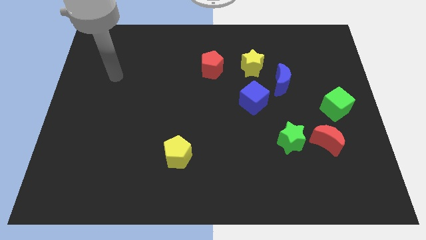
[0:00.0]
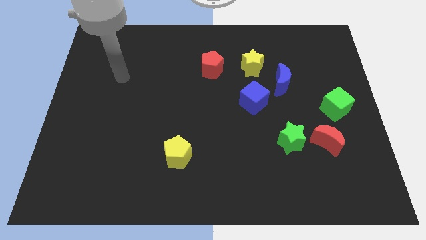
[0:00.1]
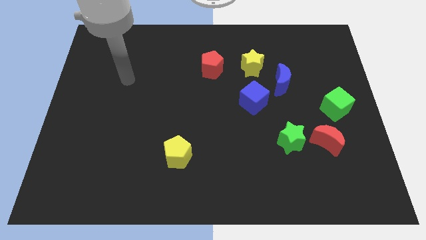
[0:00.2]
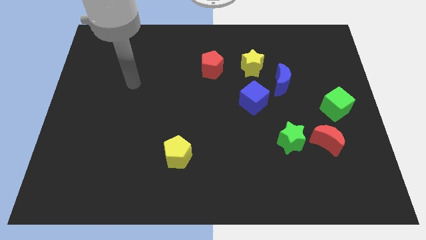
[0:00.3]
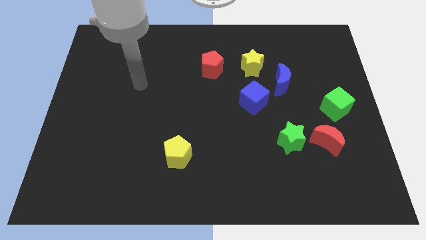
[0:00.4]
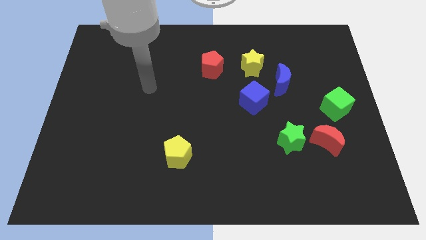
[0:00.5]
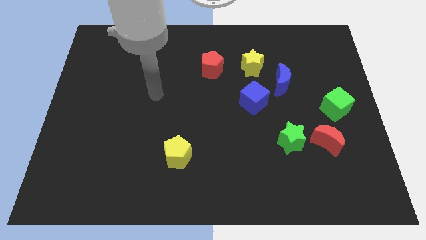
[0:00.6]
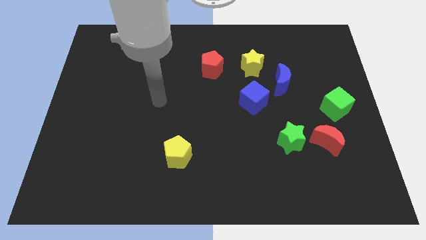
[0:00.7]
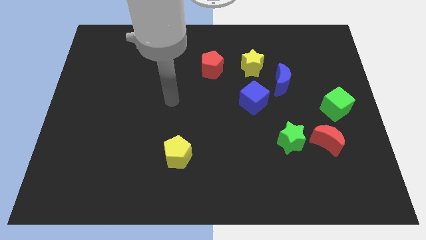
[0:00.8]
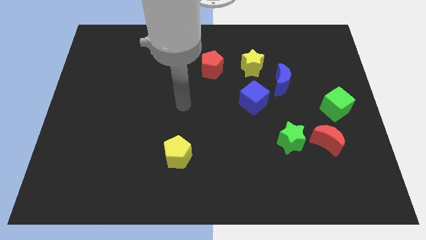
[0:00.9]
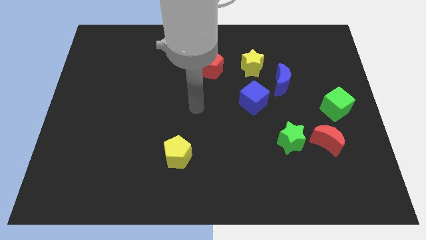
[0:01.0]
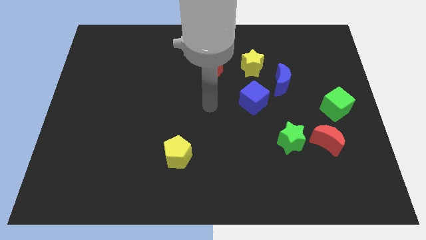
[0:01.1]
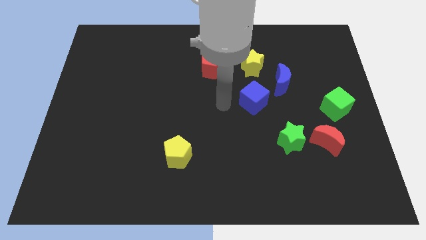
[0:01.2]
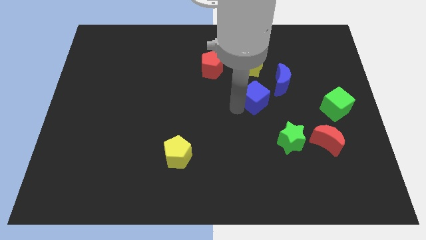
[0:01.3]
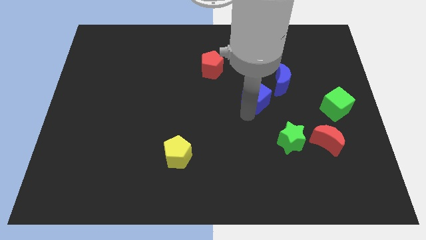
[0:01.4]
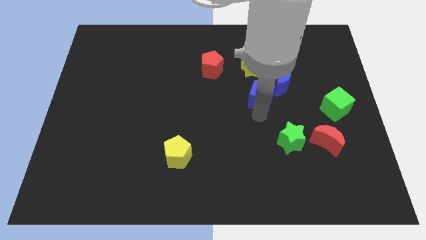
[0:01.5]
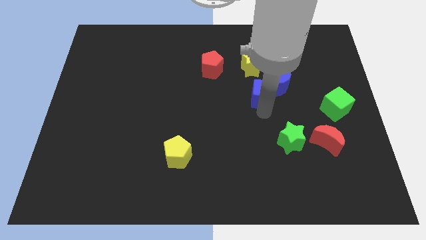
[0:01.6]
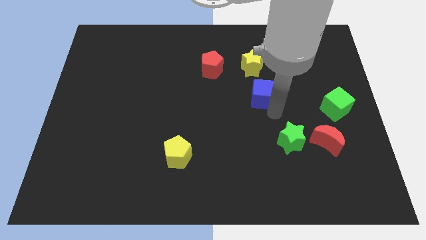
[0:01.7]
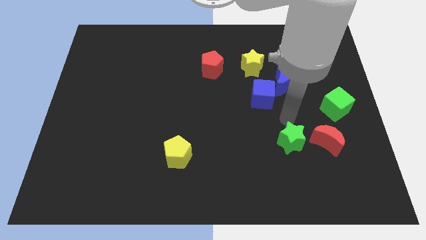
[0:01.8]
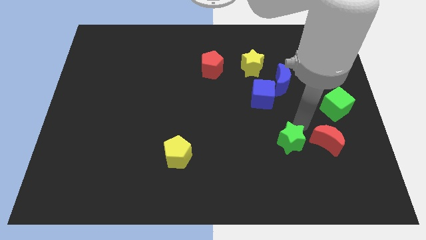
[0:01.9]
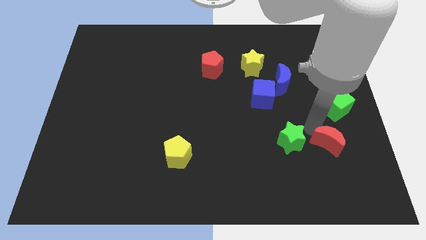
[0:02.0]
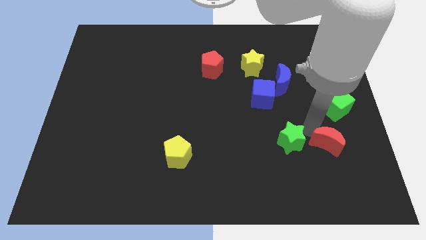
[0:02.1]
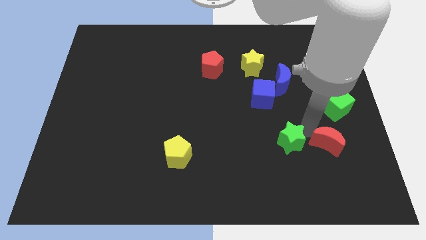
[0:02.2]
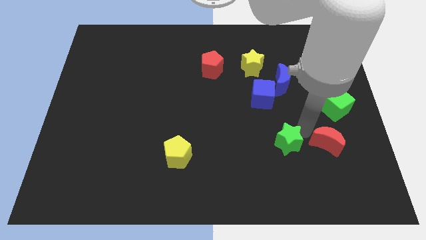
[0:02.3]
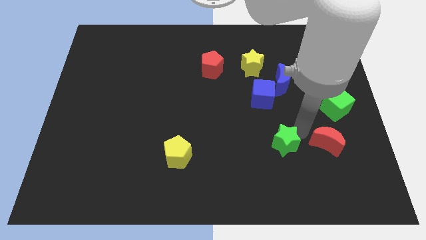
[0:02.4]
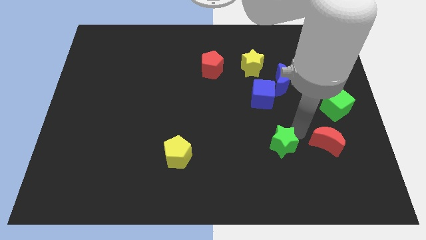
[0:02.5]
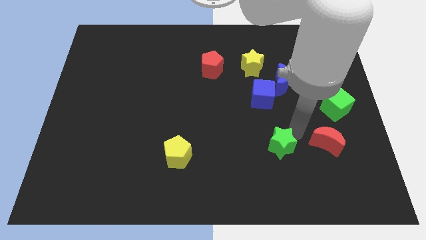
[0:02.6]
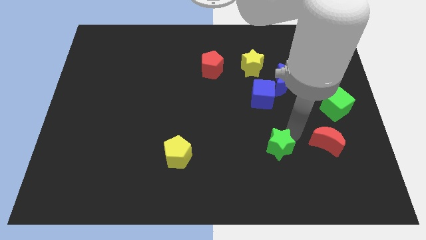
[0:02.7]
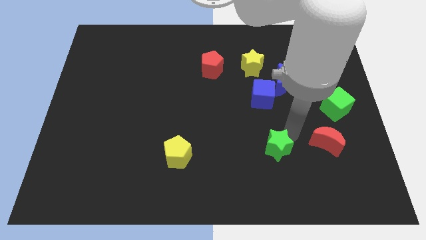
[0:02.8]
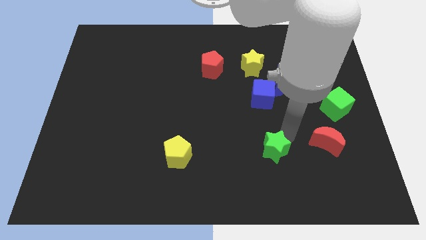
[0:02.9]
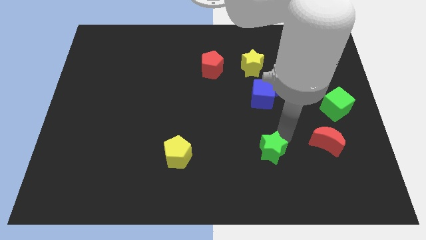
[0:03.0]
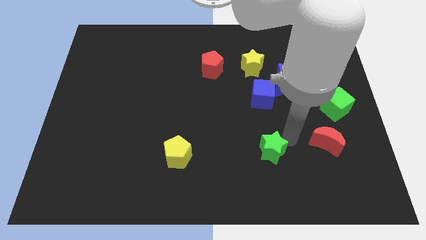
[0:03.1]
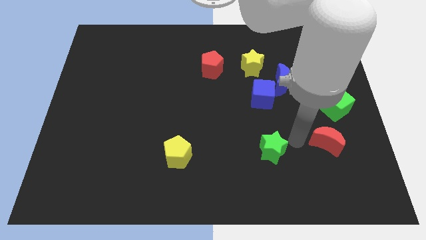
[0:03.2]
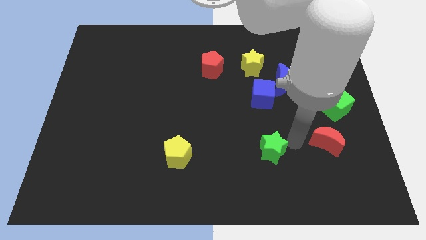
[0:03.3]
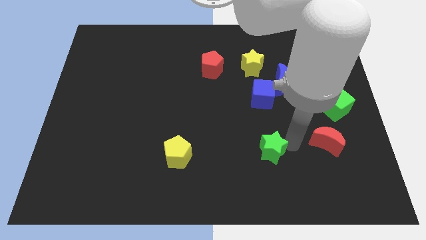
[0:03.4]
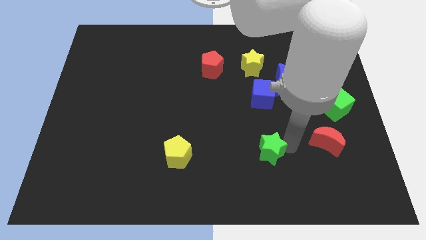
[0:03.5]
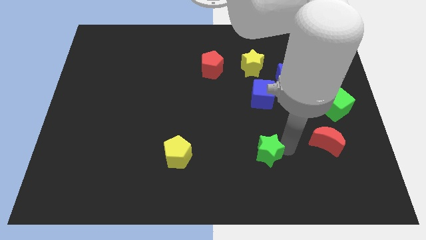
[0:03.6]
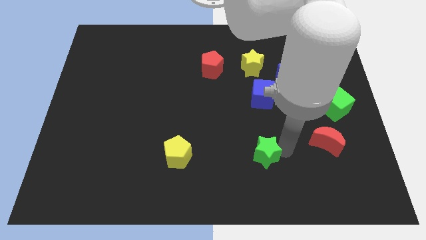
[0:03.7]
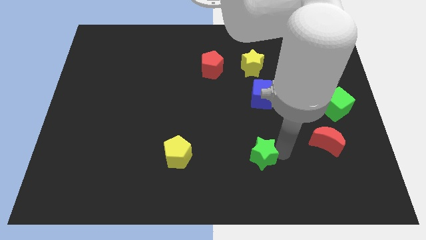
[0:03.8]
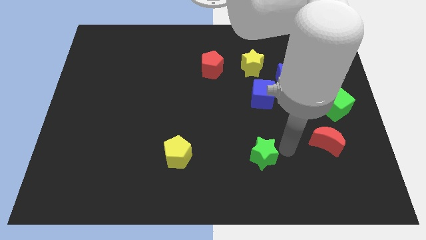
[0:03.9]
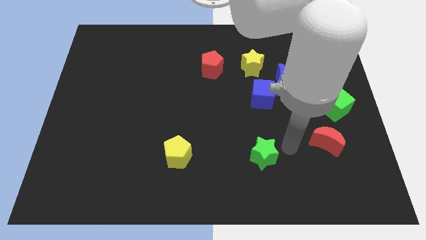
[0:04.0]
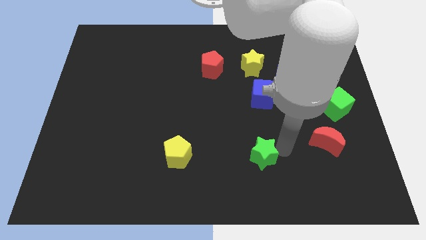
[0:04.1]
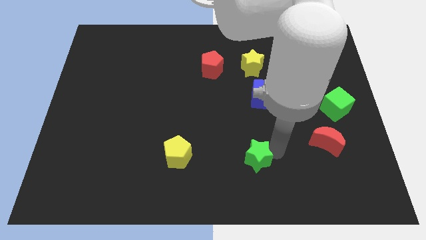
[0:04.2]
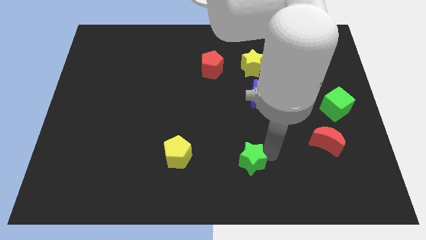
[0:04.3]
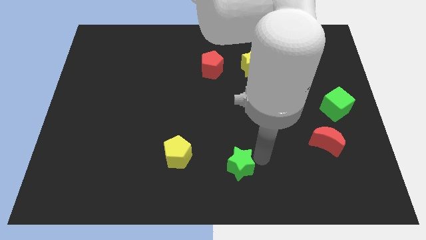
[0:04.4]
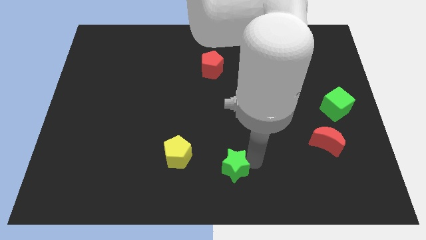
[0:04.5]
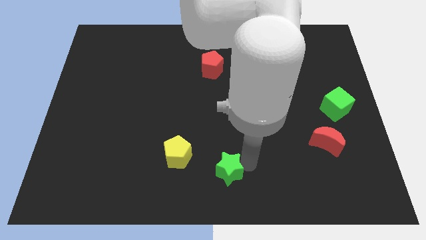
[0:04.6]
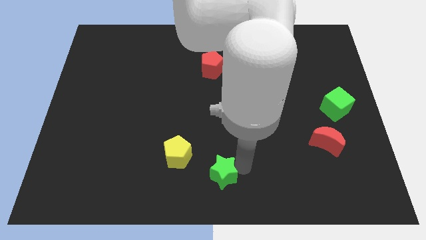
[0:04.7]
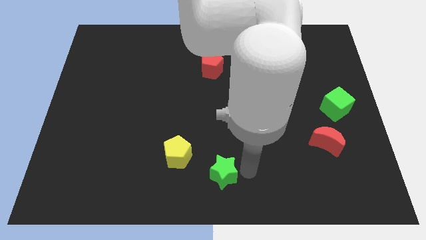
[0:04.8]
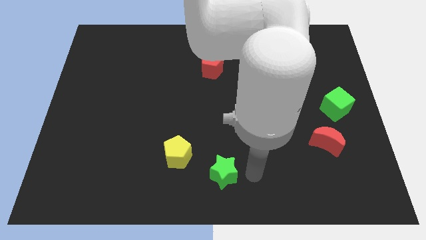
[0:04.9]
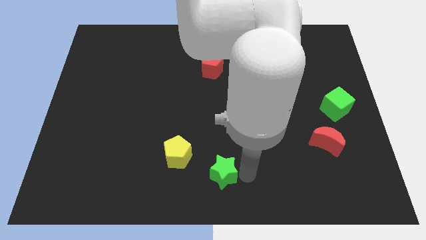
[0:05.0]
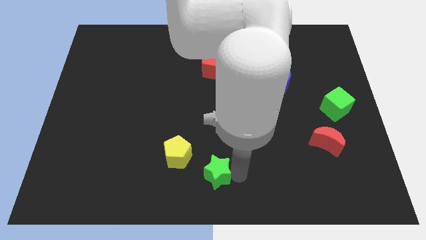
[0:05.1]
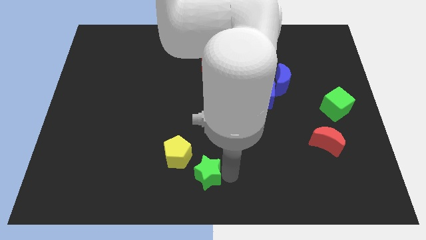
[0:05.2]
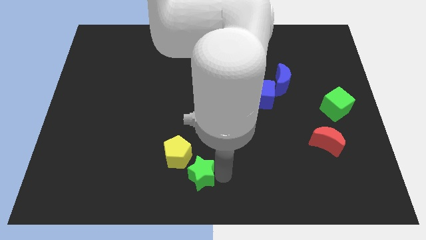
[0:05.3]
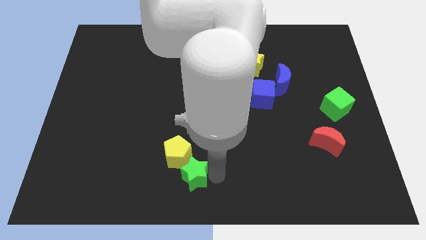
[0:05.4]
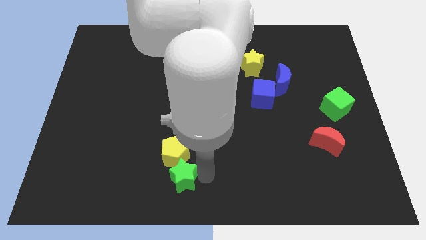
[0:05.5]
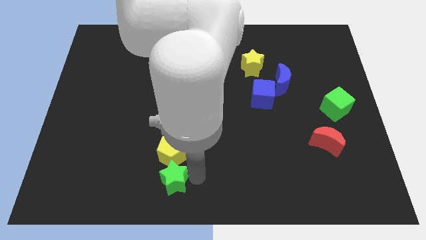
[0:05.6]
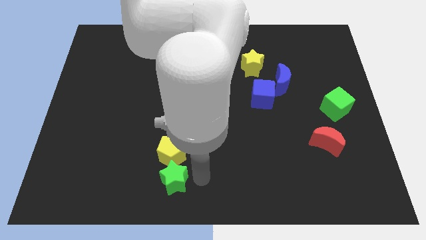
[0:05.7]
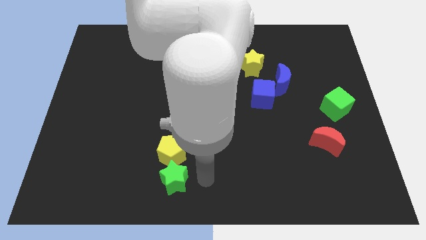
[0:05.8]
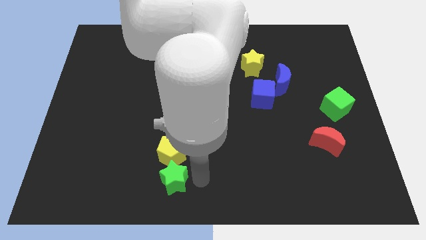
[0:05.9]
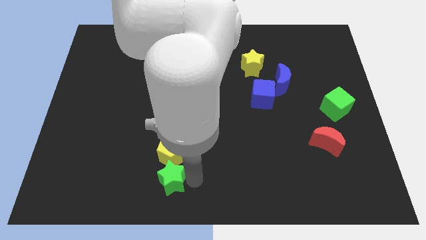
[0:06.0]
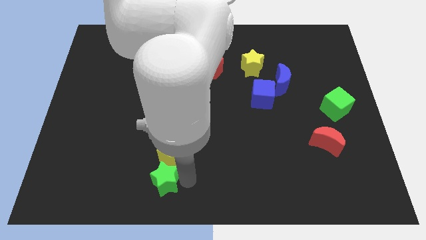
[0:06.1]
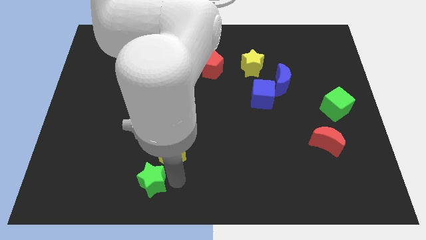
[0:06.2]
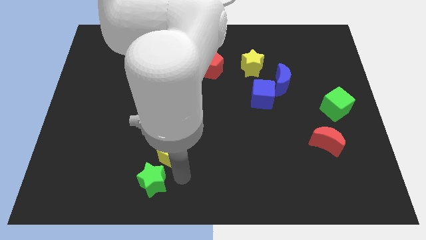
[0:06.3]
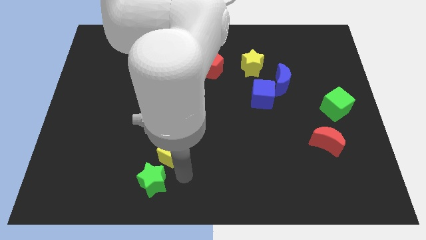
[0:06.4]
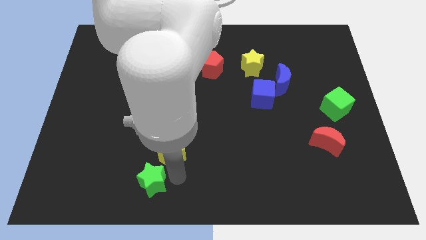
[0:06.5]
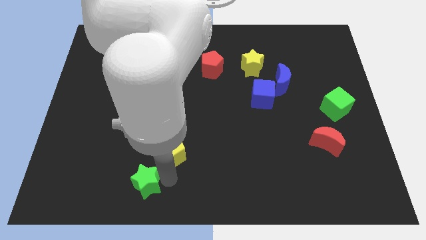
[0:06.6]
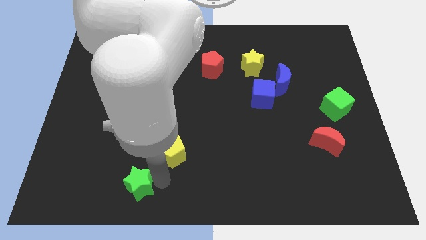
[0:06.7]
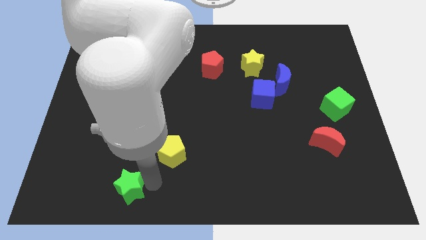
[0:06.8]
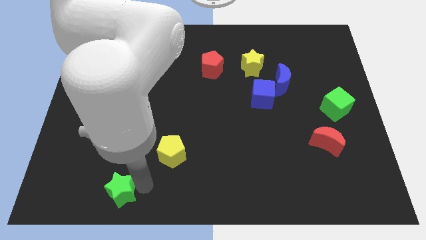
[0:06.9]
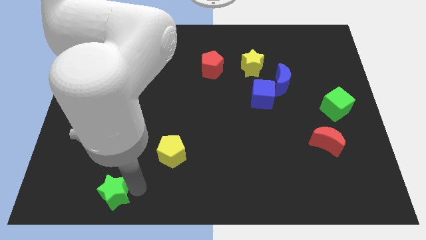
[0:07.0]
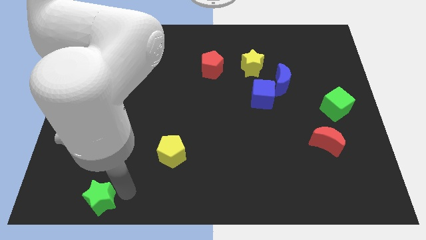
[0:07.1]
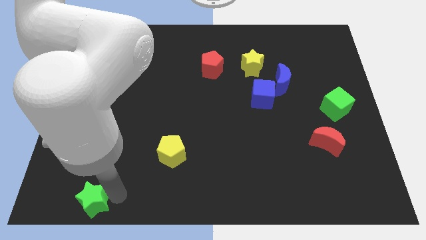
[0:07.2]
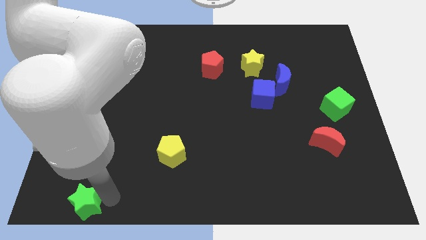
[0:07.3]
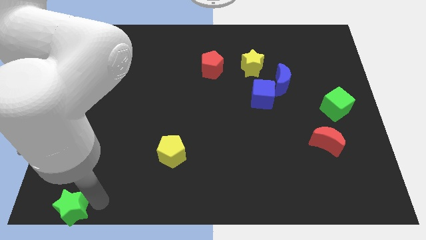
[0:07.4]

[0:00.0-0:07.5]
move the green star to the lower left corner
